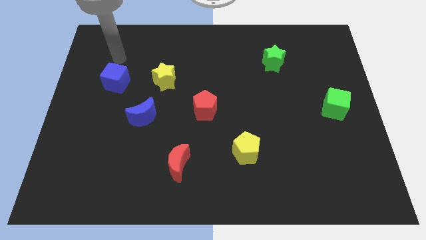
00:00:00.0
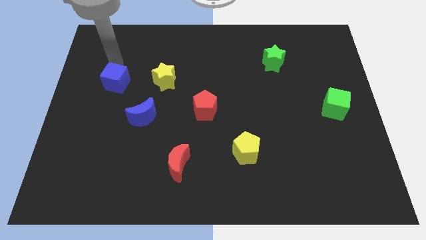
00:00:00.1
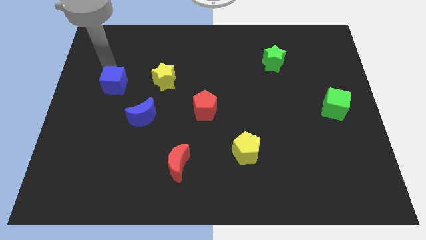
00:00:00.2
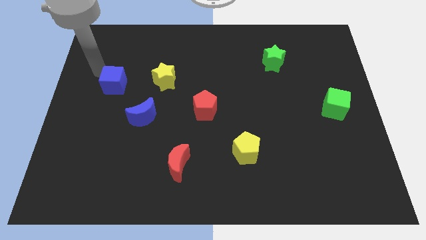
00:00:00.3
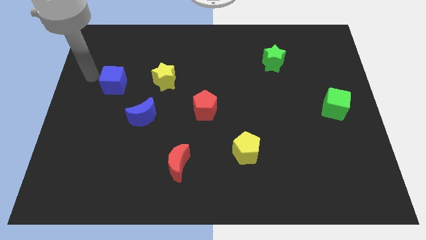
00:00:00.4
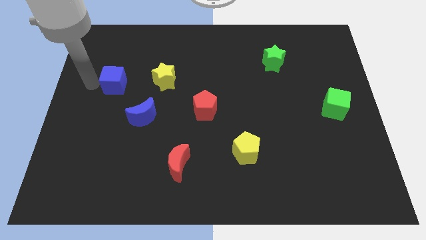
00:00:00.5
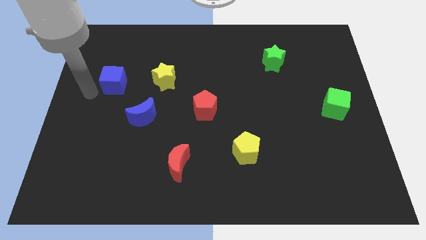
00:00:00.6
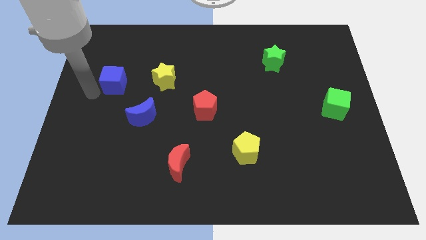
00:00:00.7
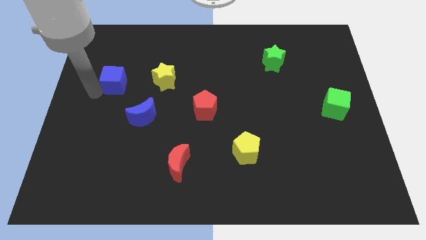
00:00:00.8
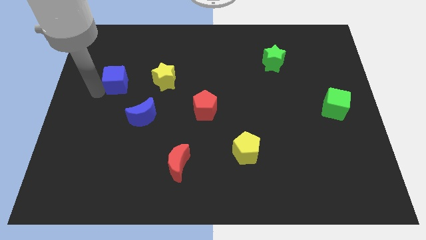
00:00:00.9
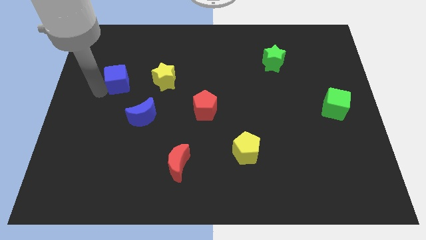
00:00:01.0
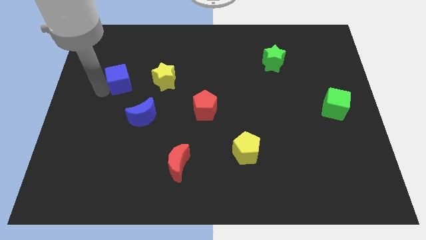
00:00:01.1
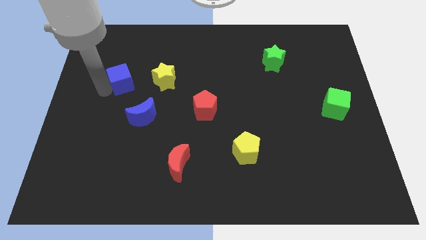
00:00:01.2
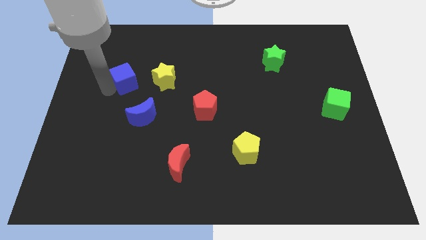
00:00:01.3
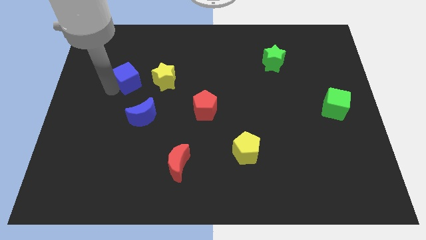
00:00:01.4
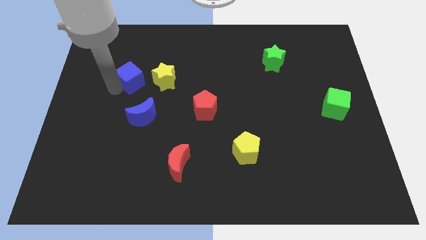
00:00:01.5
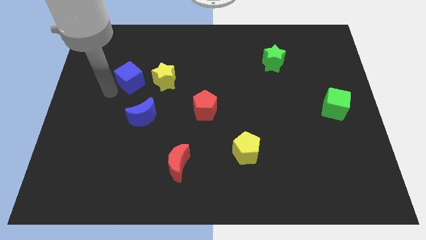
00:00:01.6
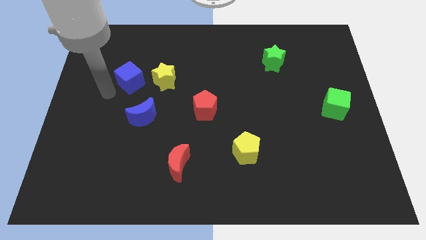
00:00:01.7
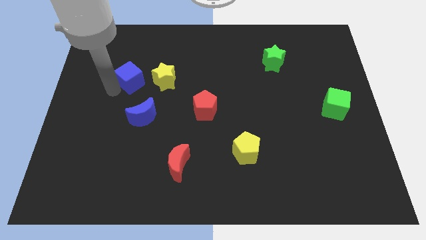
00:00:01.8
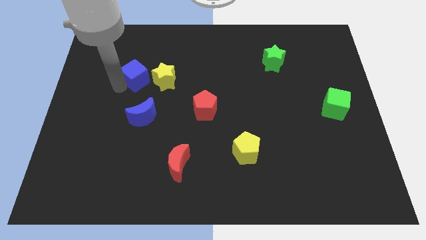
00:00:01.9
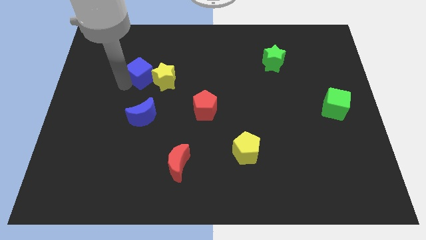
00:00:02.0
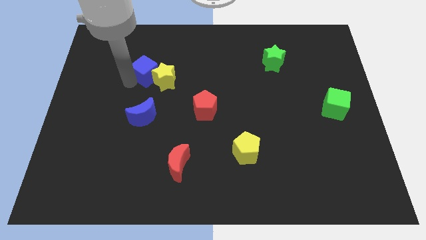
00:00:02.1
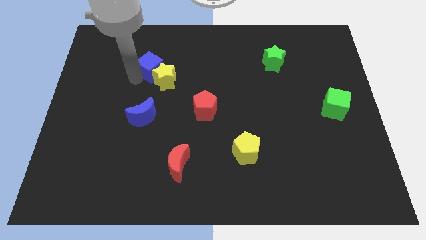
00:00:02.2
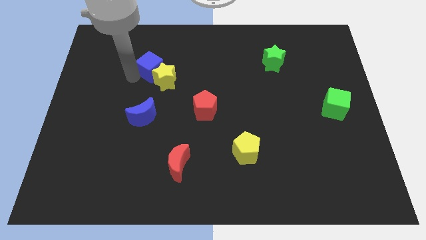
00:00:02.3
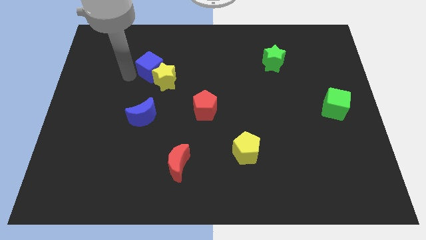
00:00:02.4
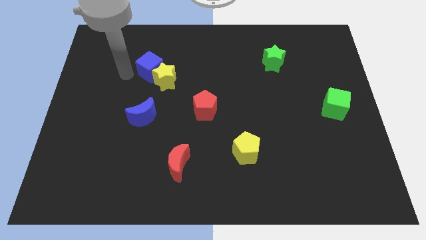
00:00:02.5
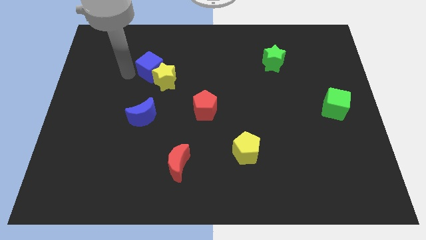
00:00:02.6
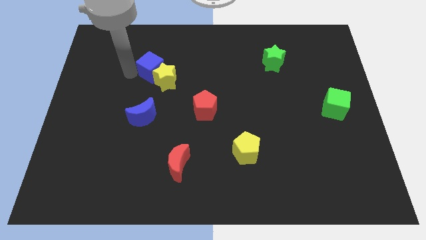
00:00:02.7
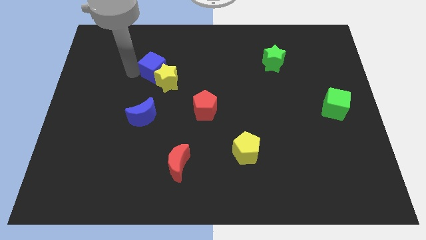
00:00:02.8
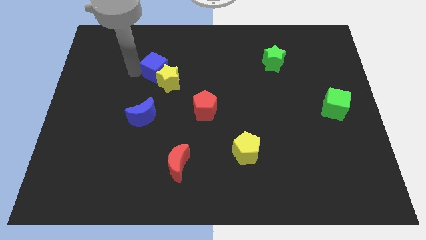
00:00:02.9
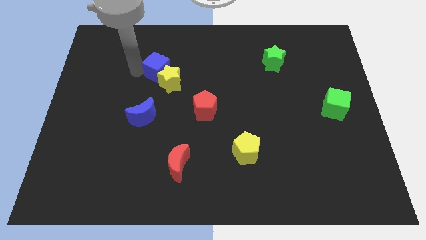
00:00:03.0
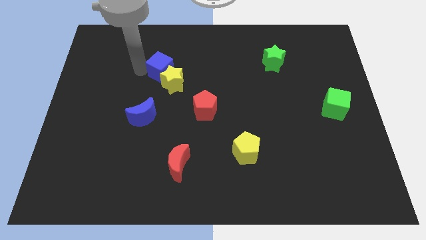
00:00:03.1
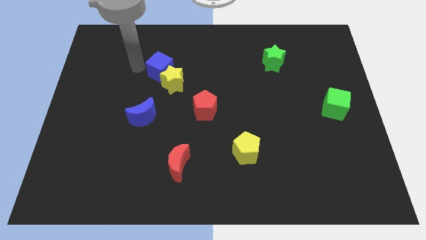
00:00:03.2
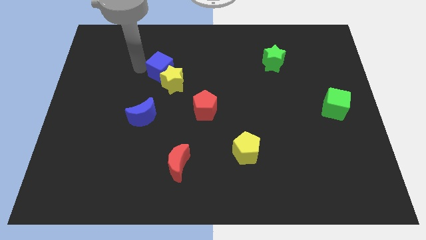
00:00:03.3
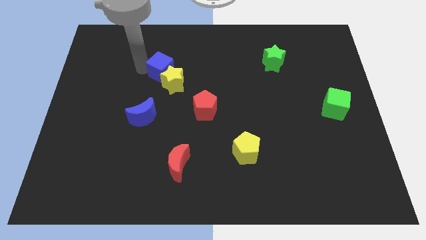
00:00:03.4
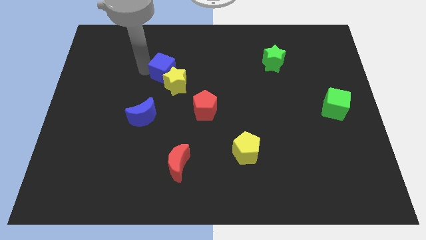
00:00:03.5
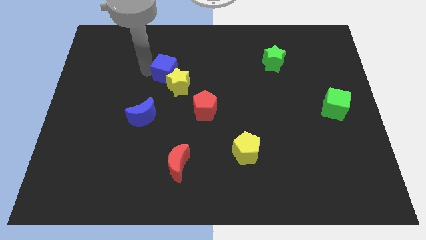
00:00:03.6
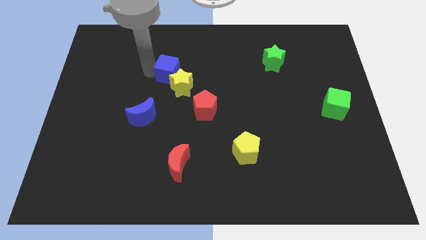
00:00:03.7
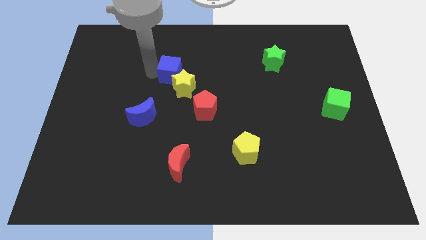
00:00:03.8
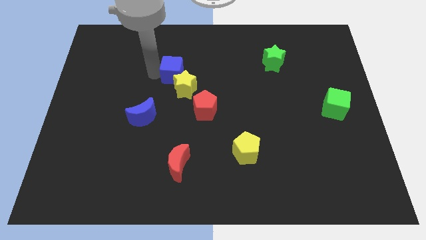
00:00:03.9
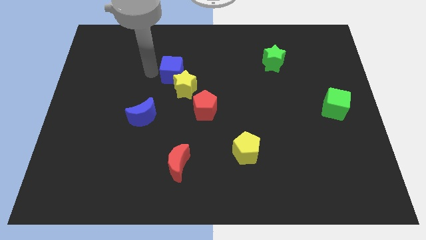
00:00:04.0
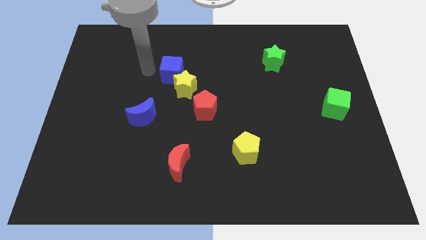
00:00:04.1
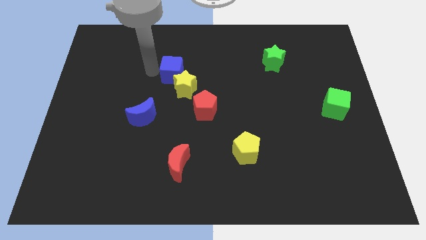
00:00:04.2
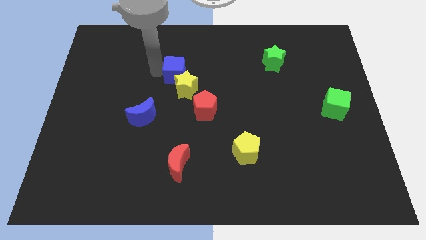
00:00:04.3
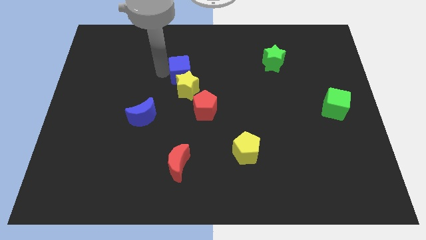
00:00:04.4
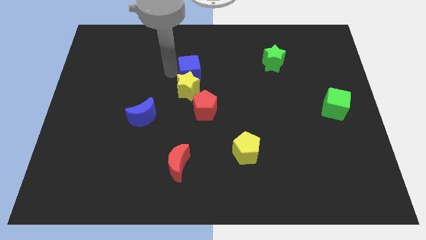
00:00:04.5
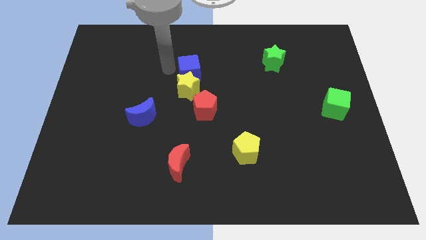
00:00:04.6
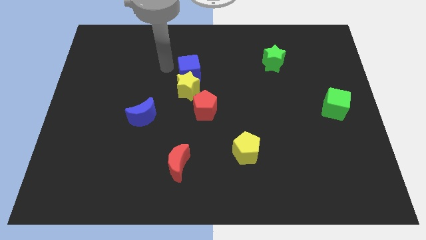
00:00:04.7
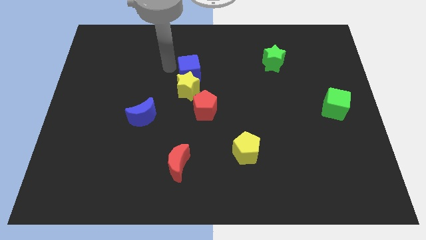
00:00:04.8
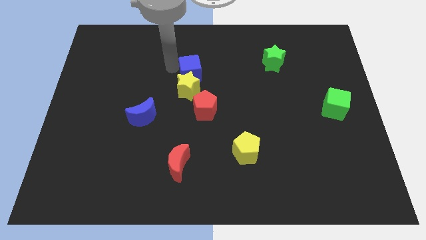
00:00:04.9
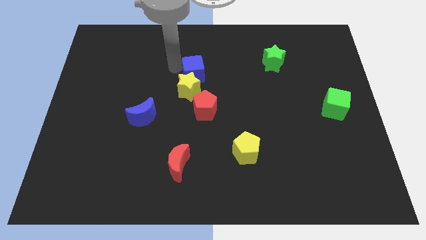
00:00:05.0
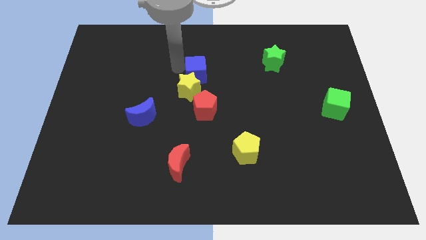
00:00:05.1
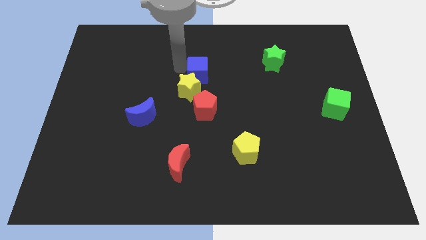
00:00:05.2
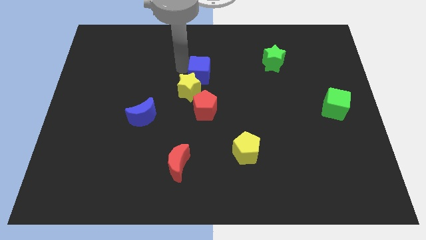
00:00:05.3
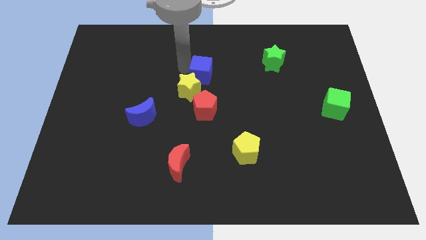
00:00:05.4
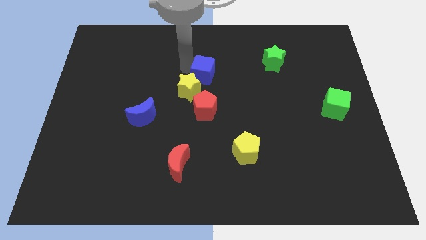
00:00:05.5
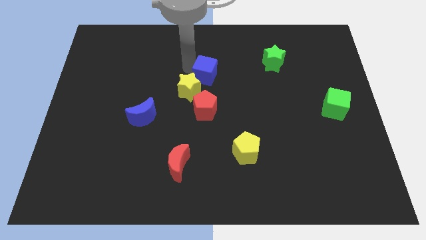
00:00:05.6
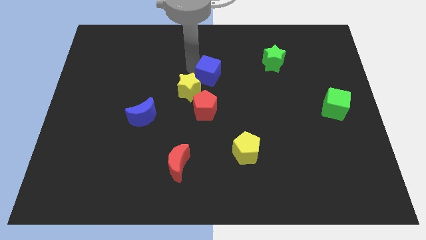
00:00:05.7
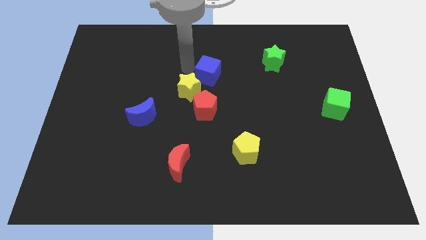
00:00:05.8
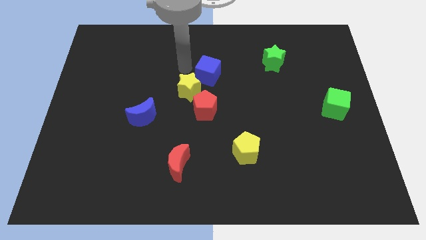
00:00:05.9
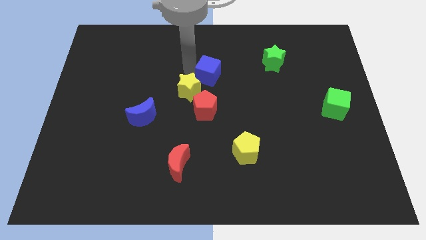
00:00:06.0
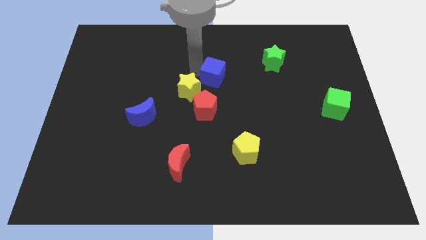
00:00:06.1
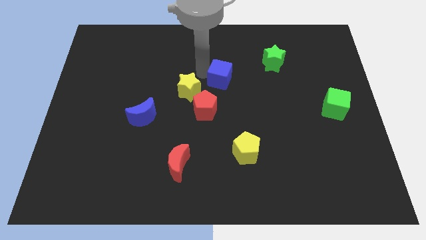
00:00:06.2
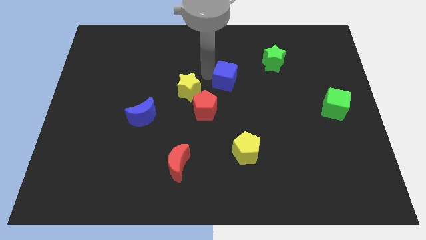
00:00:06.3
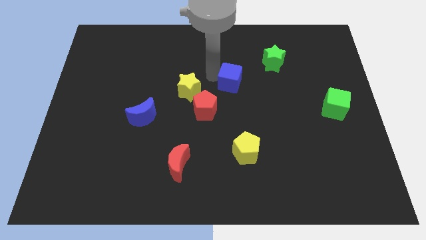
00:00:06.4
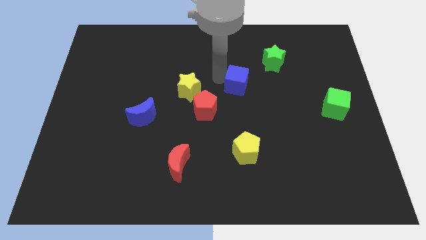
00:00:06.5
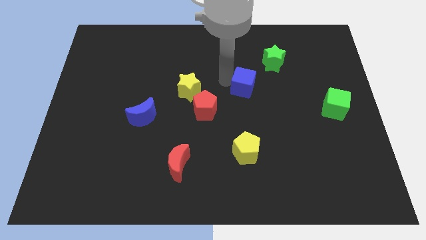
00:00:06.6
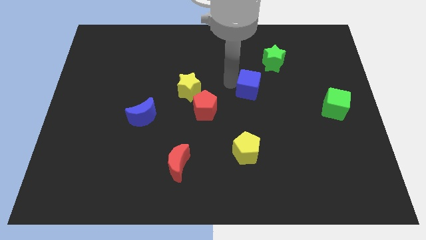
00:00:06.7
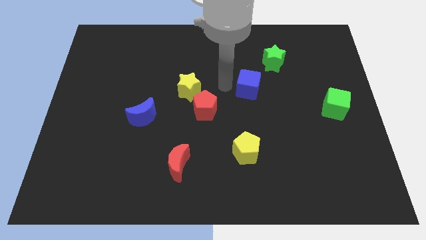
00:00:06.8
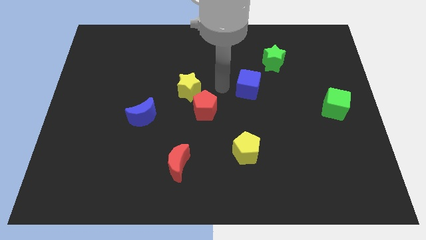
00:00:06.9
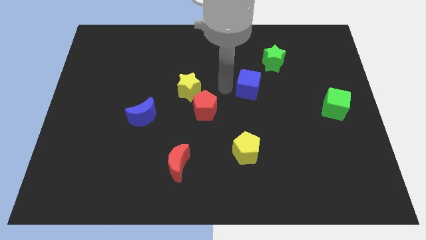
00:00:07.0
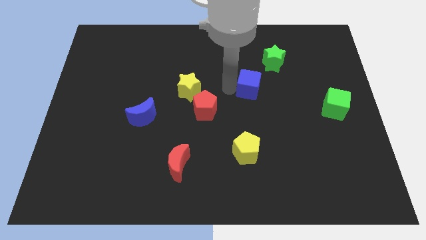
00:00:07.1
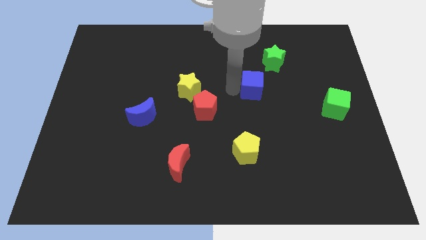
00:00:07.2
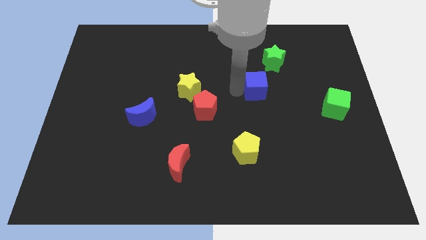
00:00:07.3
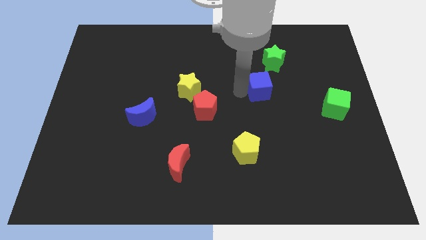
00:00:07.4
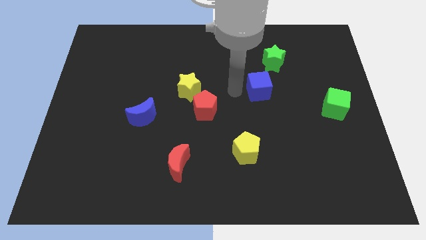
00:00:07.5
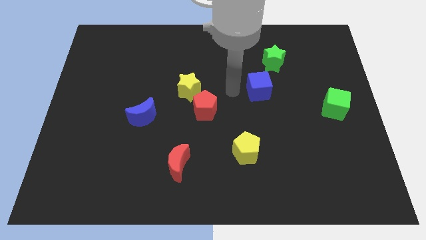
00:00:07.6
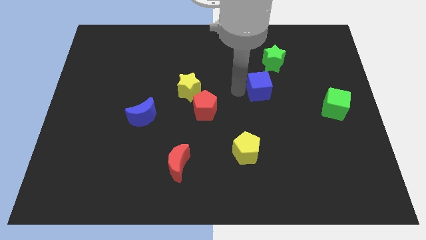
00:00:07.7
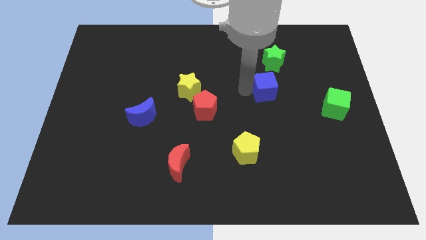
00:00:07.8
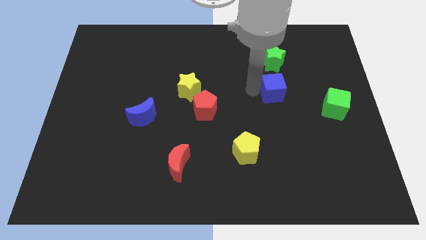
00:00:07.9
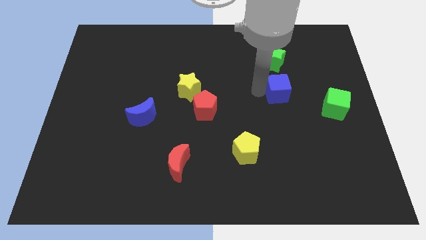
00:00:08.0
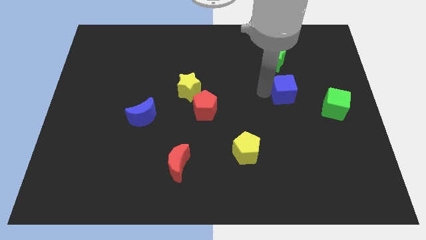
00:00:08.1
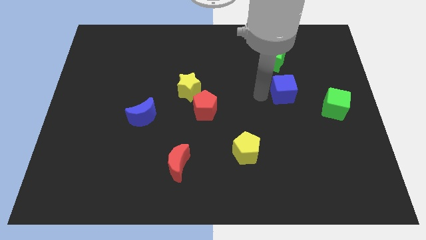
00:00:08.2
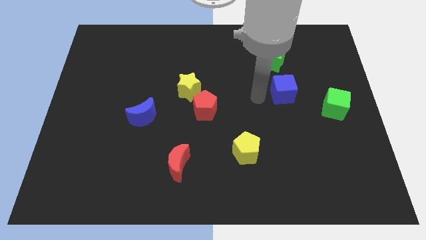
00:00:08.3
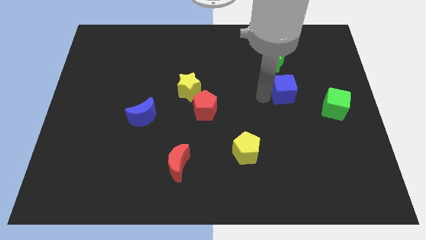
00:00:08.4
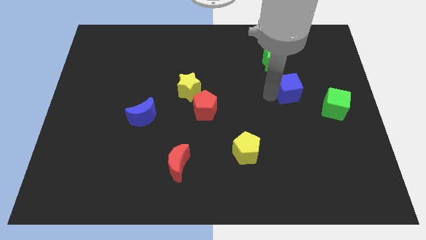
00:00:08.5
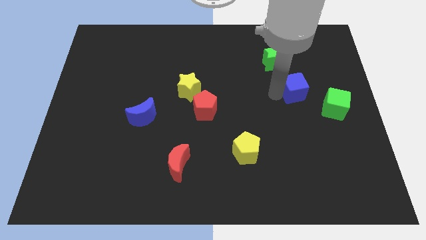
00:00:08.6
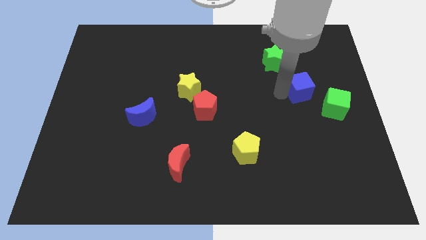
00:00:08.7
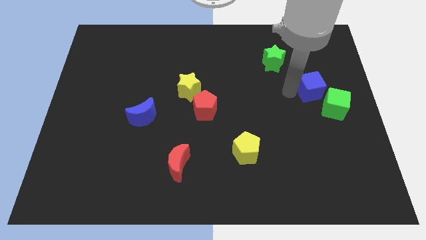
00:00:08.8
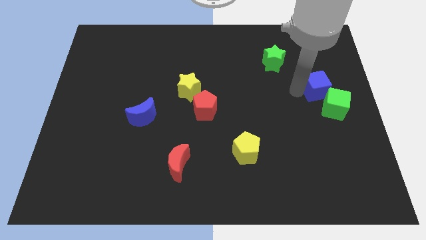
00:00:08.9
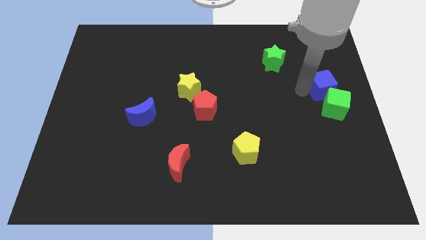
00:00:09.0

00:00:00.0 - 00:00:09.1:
move the blue cube to the center right
